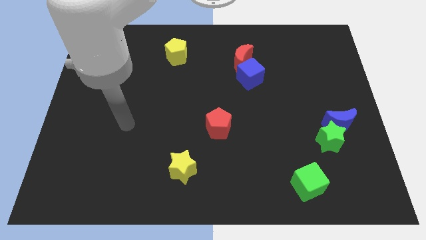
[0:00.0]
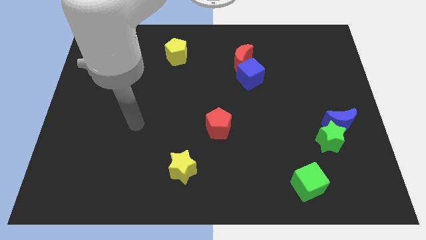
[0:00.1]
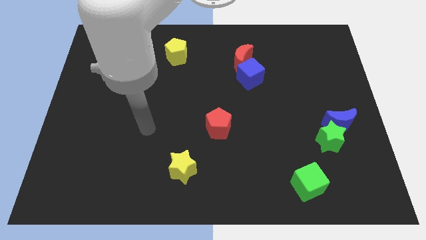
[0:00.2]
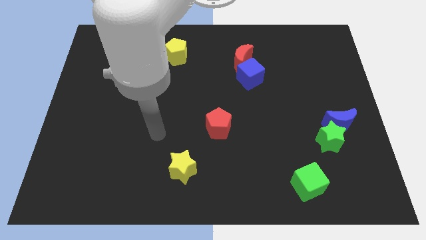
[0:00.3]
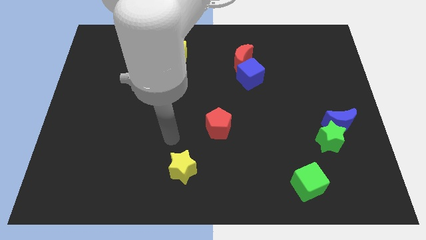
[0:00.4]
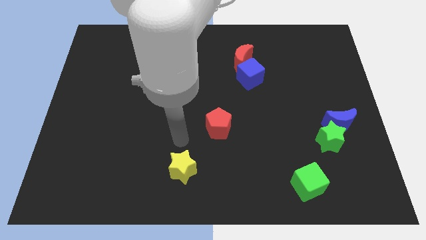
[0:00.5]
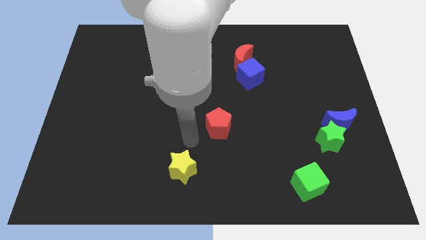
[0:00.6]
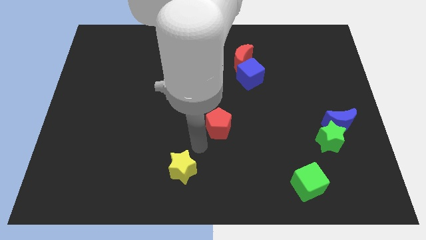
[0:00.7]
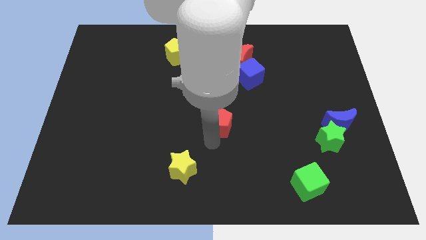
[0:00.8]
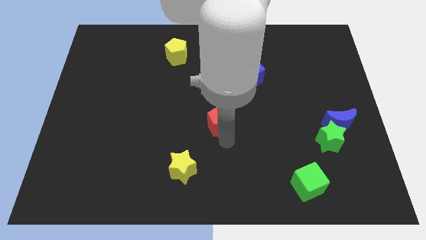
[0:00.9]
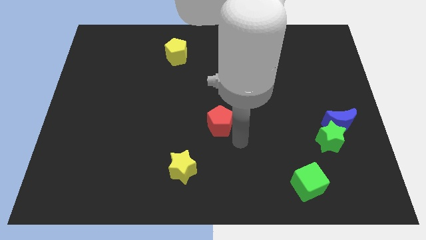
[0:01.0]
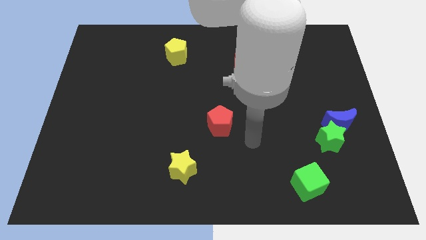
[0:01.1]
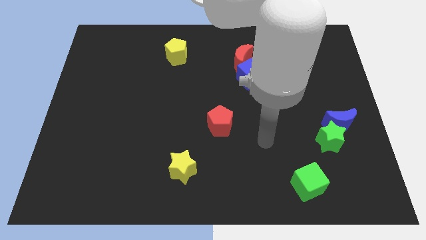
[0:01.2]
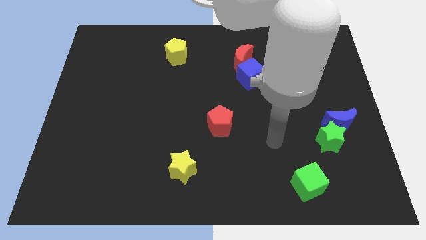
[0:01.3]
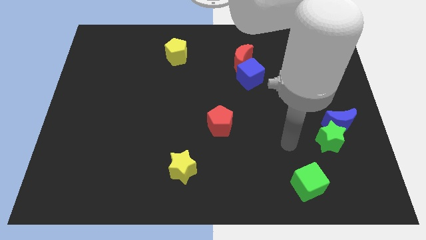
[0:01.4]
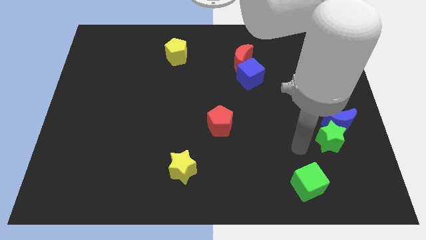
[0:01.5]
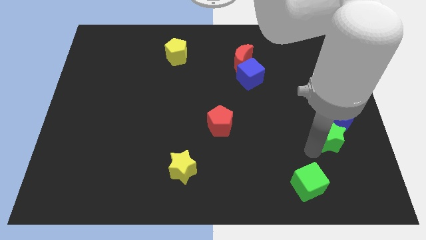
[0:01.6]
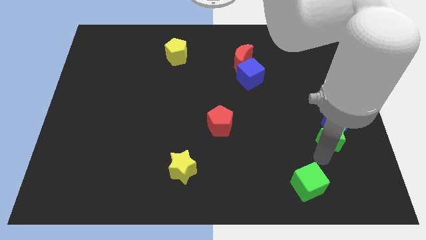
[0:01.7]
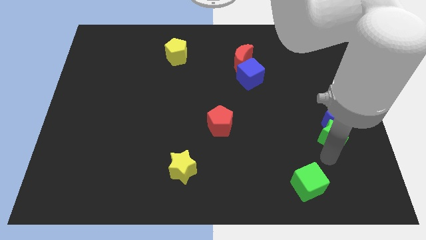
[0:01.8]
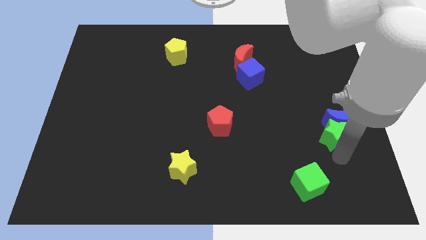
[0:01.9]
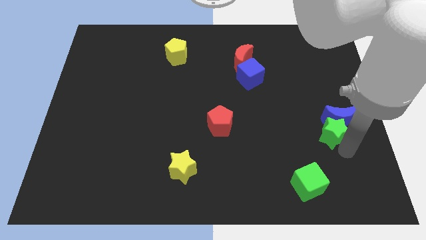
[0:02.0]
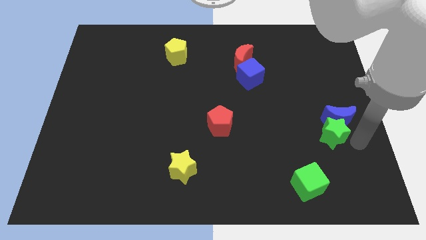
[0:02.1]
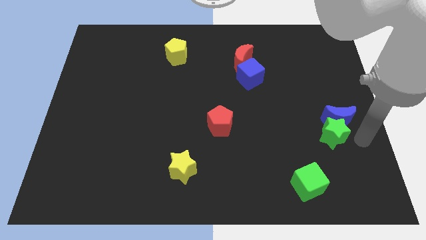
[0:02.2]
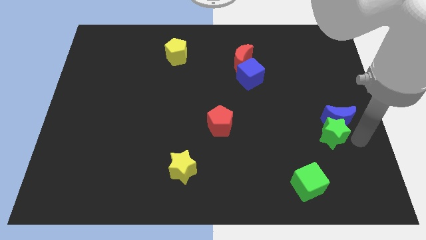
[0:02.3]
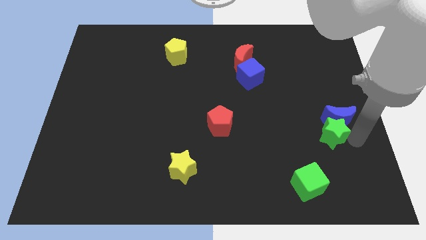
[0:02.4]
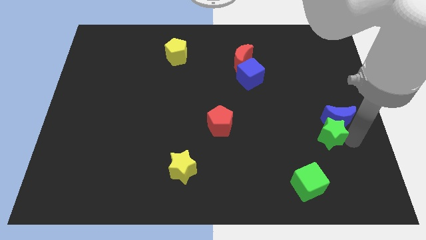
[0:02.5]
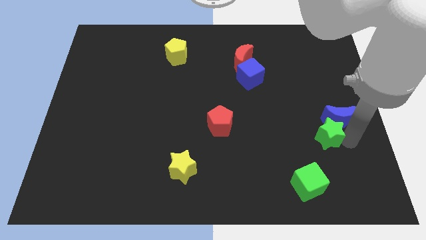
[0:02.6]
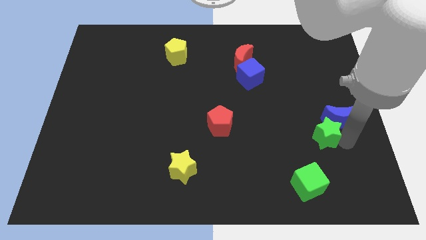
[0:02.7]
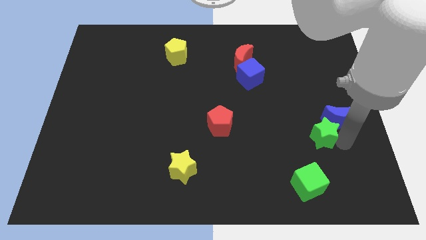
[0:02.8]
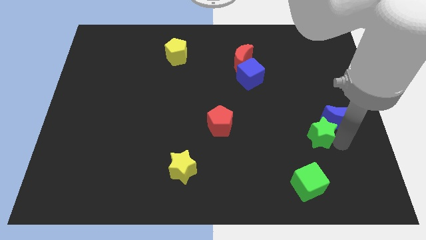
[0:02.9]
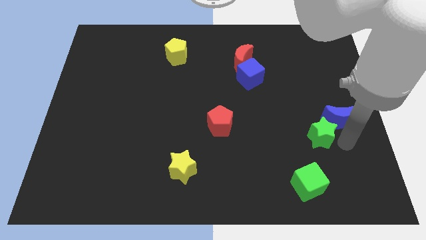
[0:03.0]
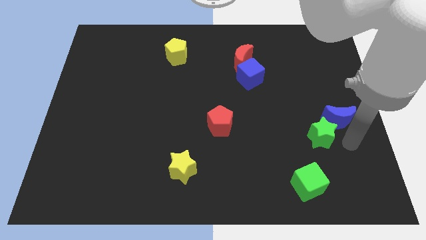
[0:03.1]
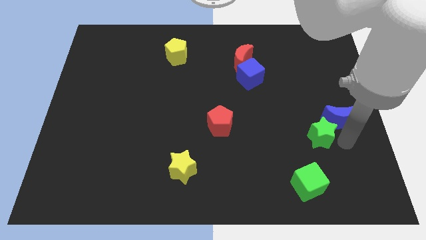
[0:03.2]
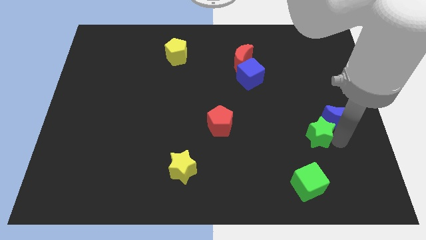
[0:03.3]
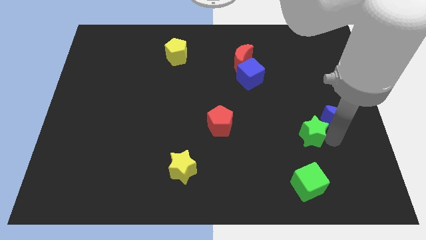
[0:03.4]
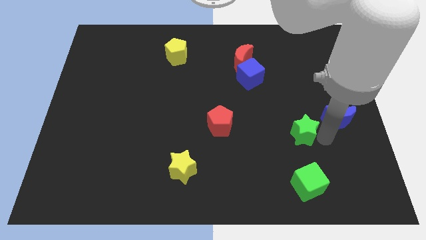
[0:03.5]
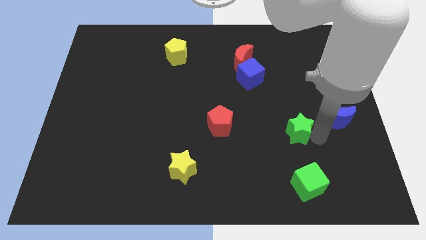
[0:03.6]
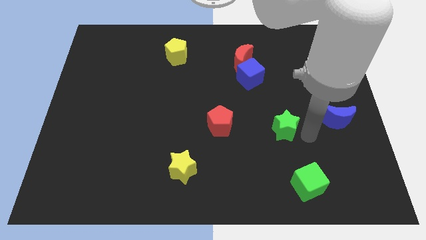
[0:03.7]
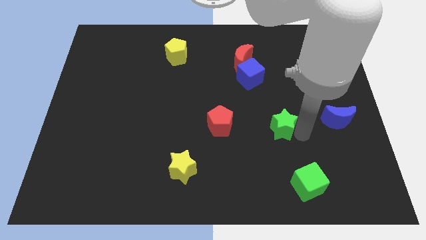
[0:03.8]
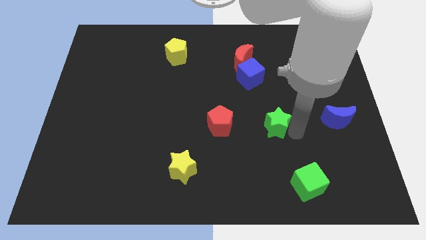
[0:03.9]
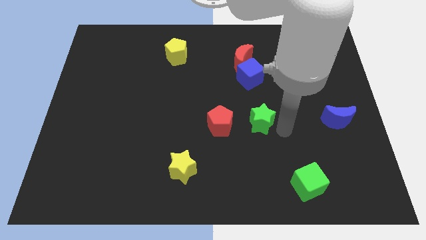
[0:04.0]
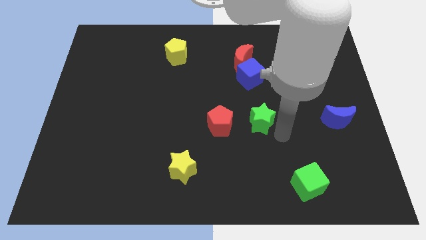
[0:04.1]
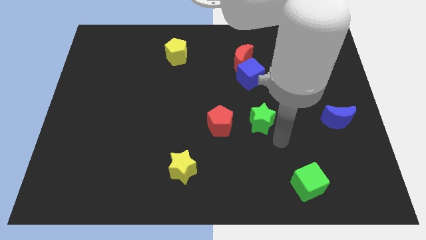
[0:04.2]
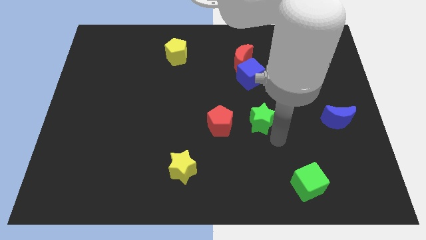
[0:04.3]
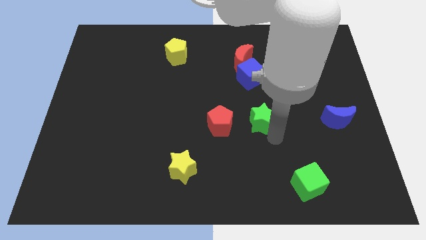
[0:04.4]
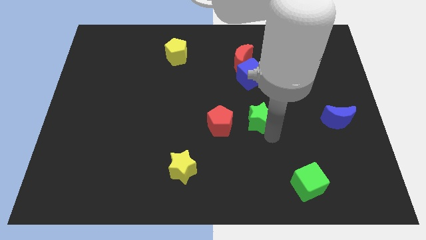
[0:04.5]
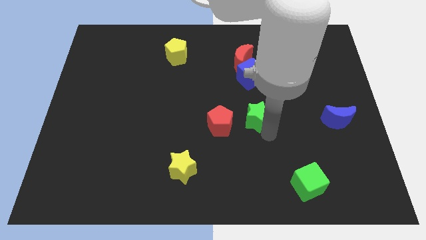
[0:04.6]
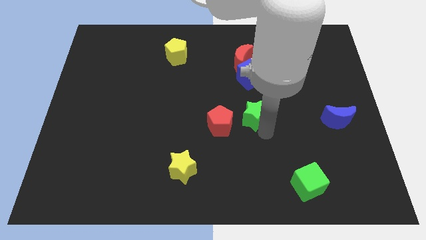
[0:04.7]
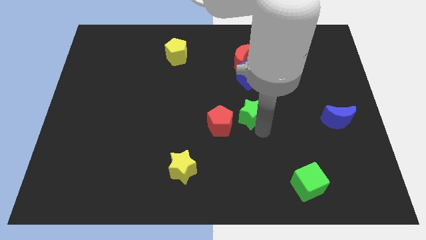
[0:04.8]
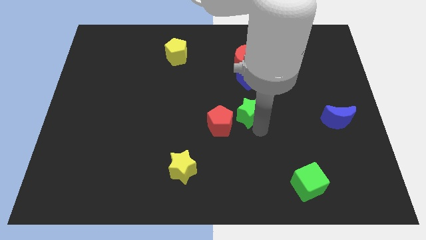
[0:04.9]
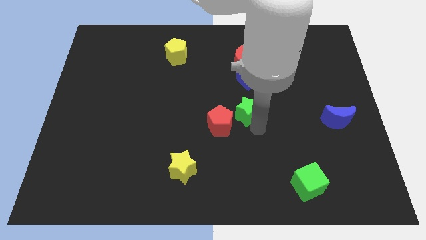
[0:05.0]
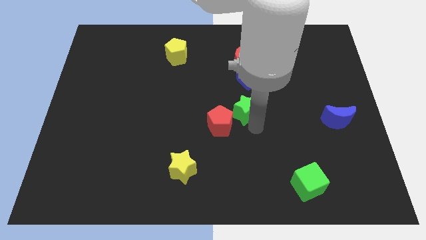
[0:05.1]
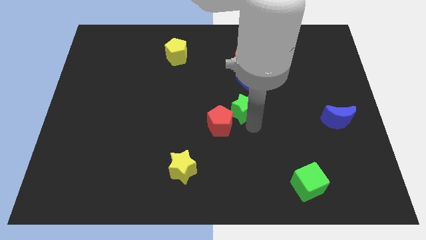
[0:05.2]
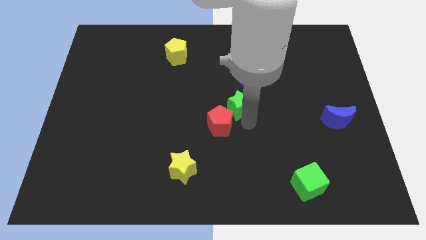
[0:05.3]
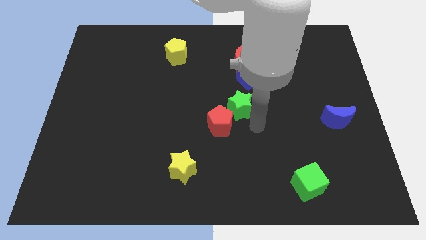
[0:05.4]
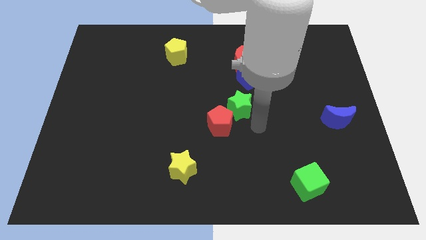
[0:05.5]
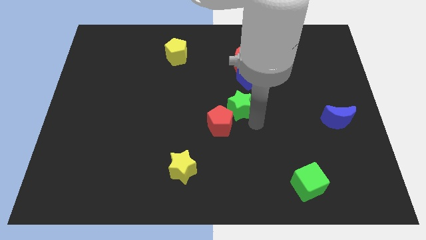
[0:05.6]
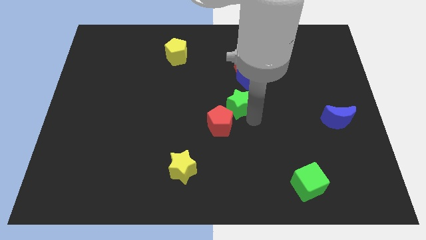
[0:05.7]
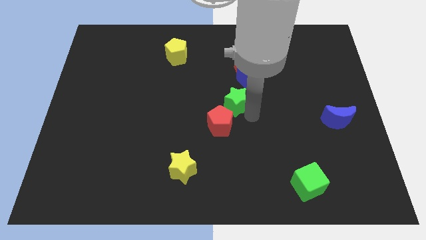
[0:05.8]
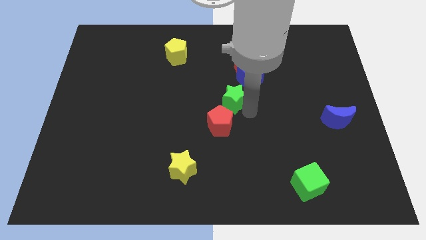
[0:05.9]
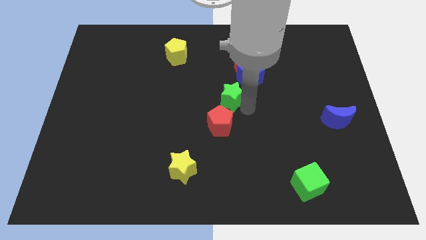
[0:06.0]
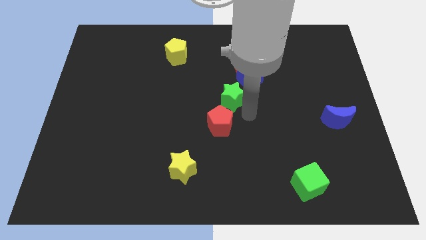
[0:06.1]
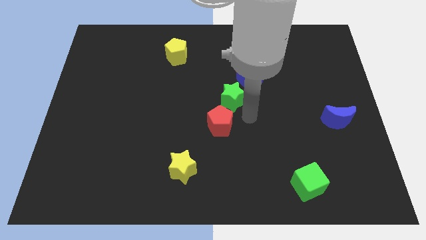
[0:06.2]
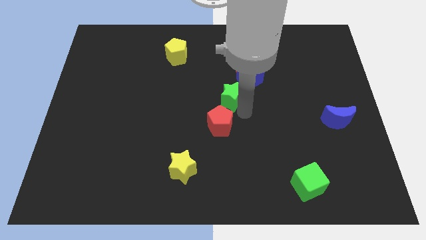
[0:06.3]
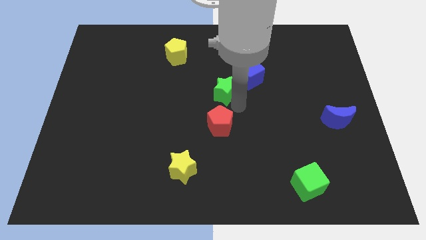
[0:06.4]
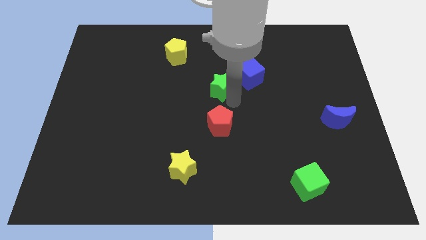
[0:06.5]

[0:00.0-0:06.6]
put the green star to the left of the blue cube

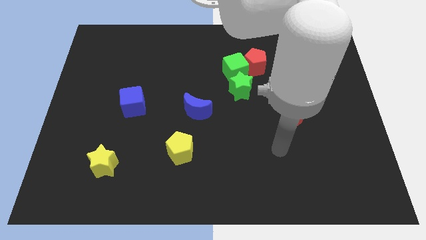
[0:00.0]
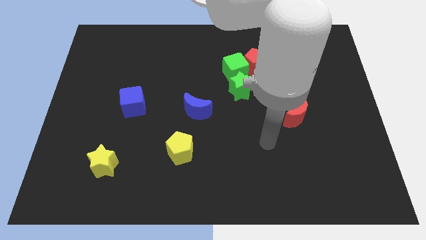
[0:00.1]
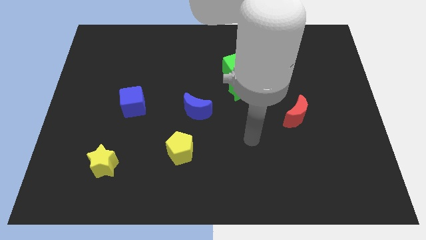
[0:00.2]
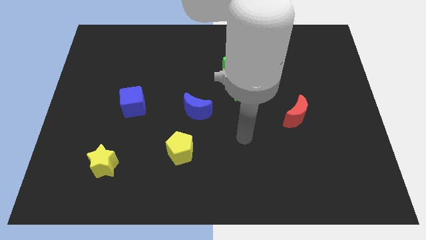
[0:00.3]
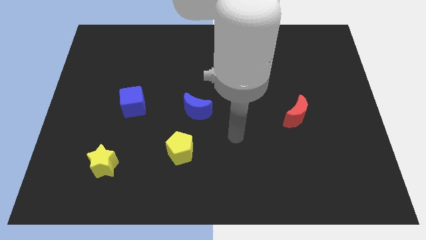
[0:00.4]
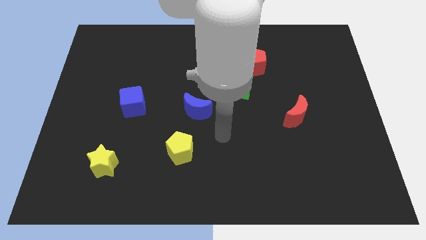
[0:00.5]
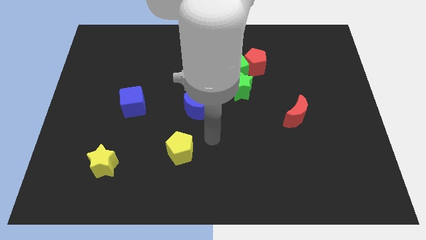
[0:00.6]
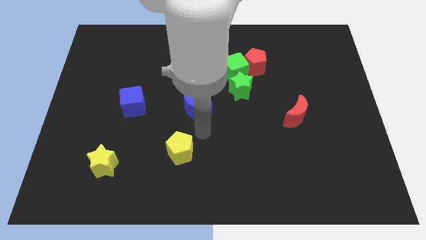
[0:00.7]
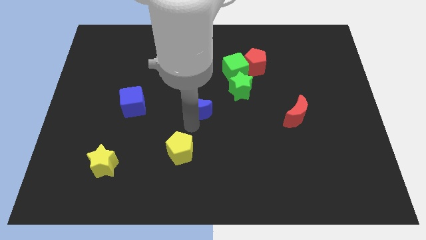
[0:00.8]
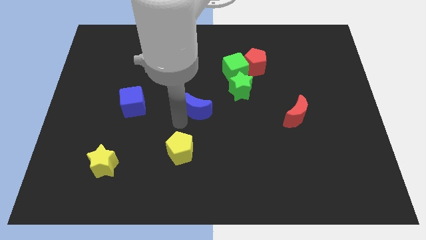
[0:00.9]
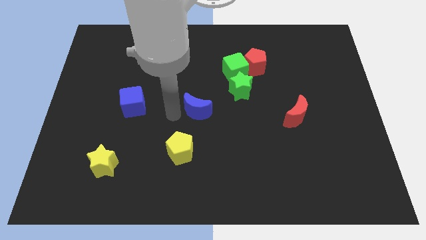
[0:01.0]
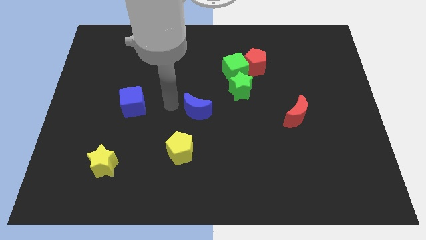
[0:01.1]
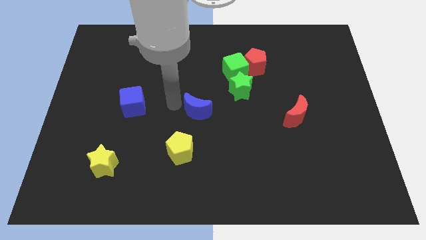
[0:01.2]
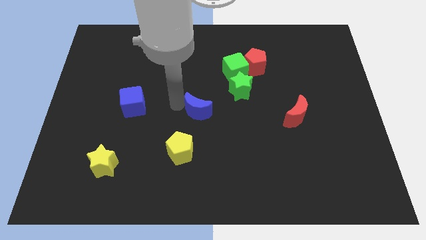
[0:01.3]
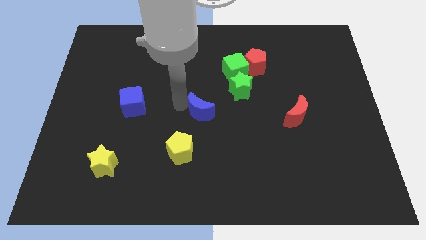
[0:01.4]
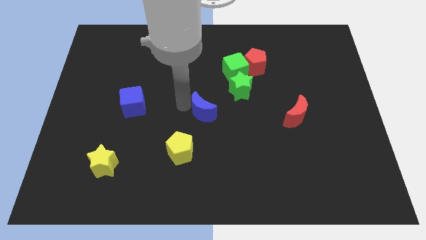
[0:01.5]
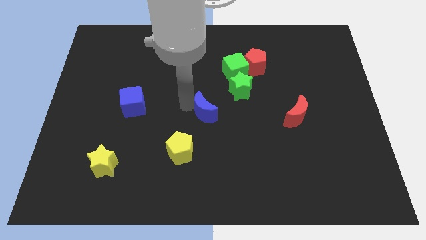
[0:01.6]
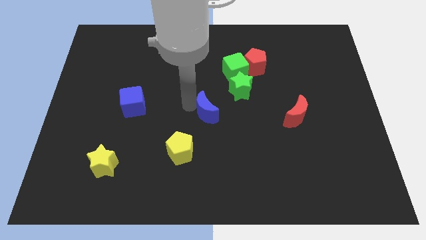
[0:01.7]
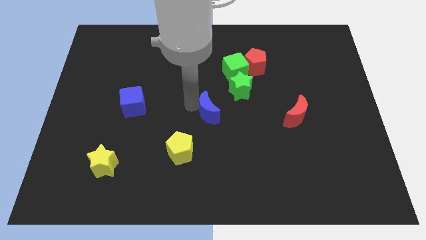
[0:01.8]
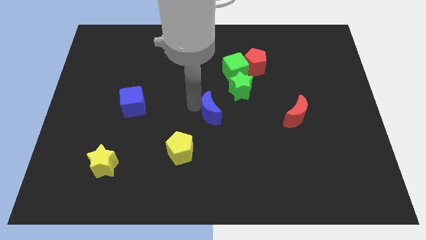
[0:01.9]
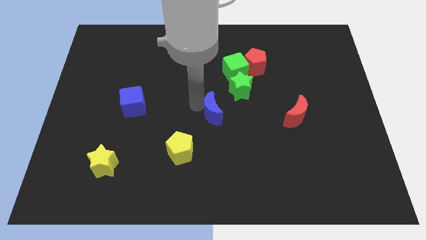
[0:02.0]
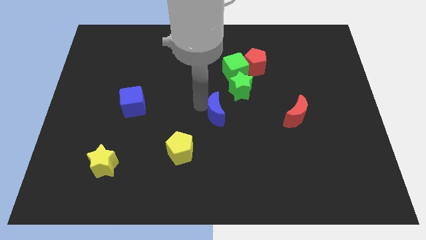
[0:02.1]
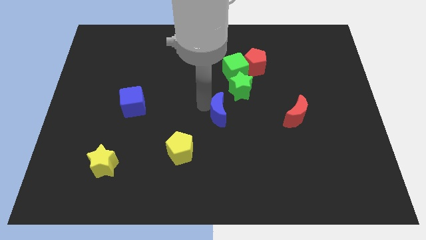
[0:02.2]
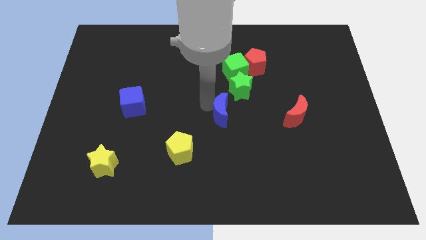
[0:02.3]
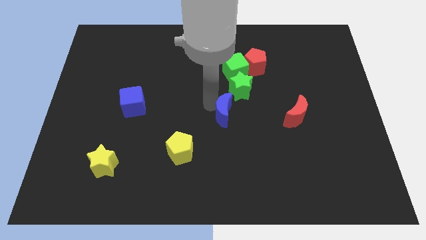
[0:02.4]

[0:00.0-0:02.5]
put the blue moon to the bottom side of the green star
